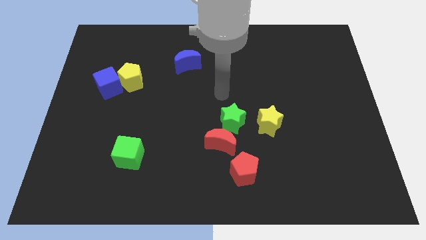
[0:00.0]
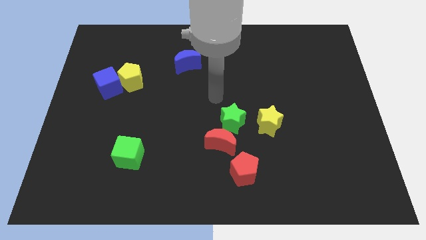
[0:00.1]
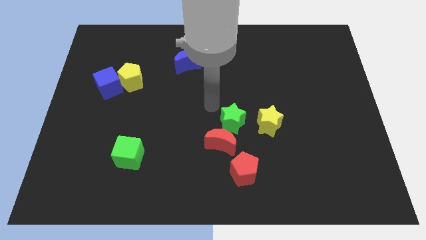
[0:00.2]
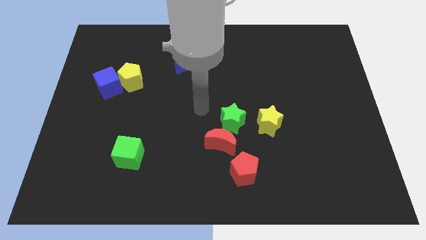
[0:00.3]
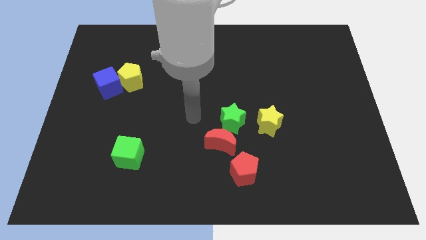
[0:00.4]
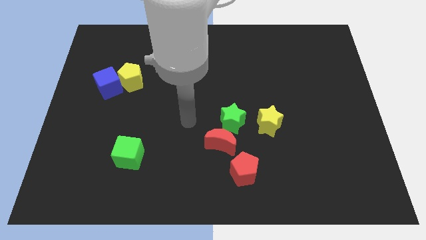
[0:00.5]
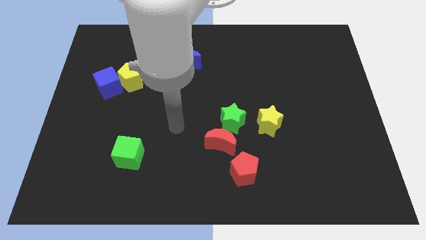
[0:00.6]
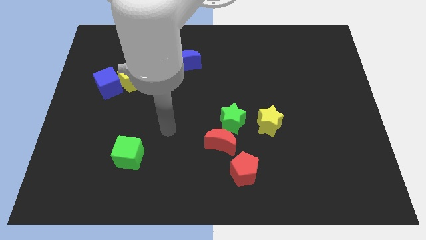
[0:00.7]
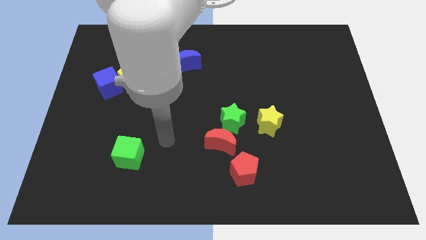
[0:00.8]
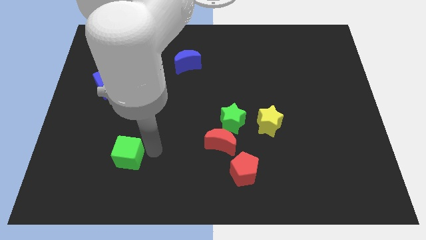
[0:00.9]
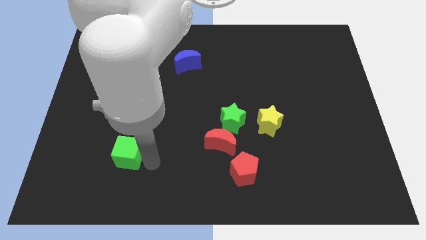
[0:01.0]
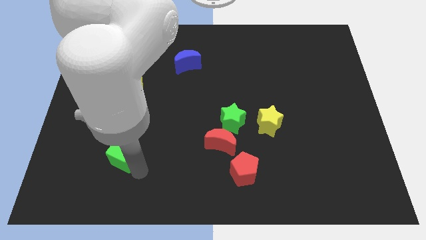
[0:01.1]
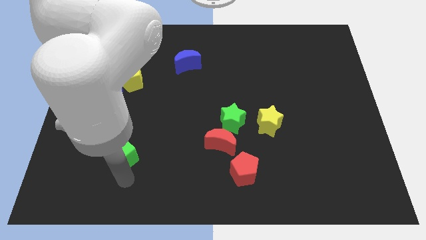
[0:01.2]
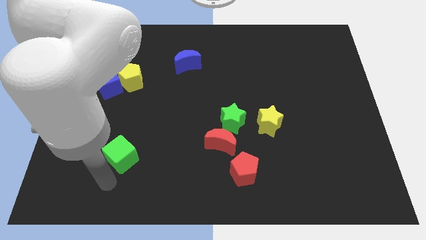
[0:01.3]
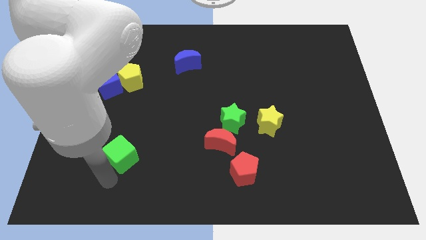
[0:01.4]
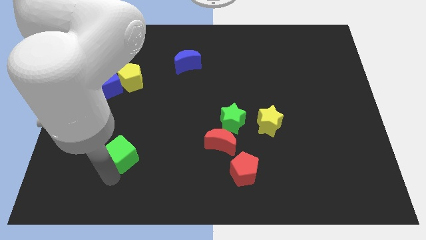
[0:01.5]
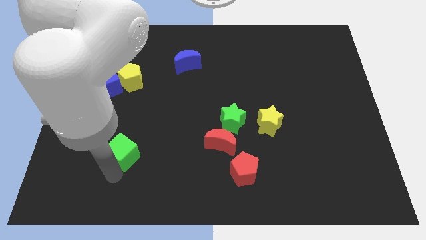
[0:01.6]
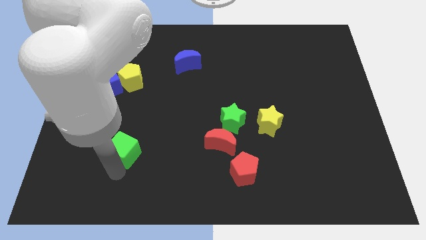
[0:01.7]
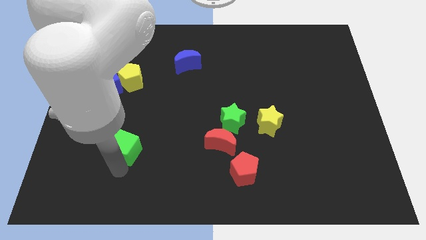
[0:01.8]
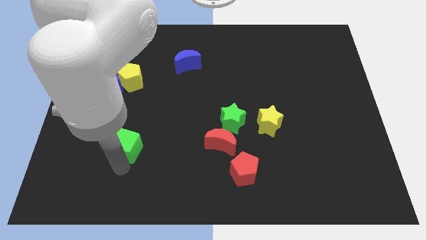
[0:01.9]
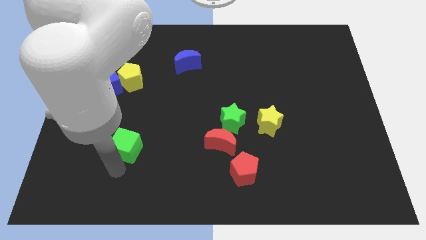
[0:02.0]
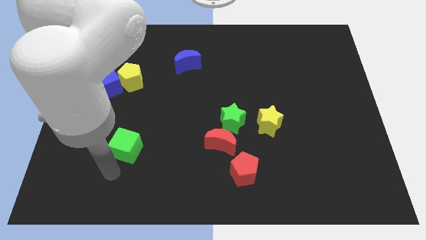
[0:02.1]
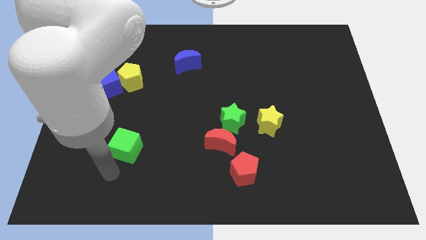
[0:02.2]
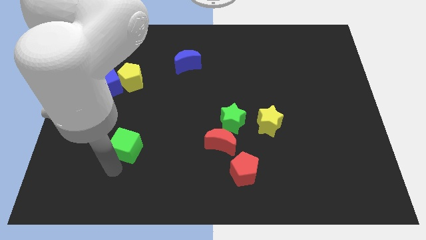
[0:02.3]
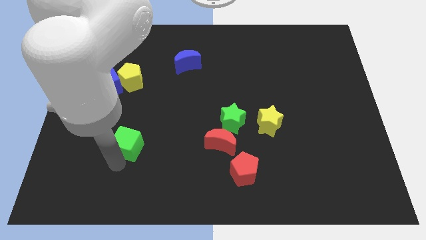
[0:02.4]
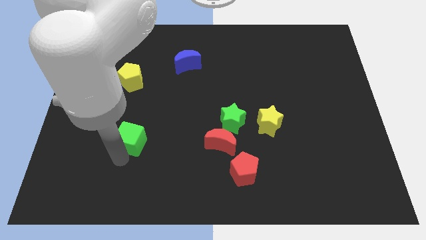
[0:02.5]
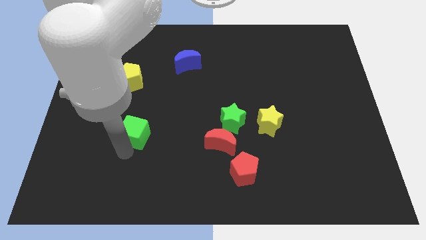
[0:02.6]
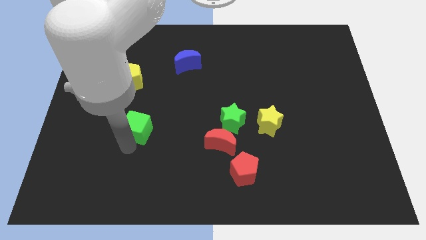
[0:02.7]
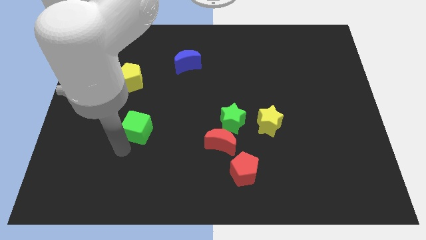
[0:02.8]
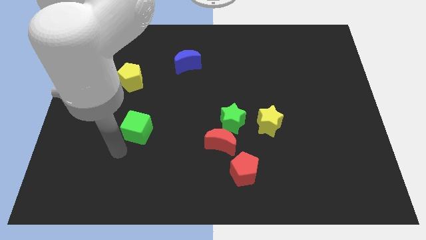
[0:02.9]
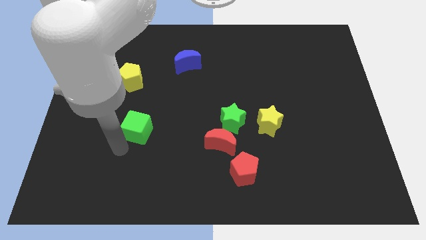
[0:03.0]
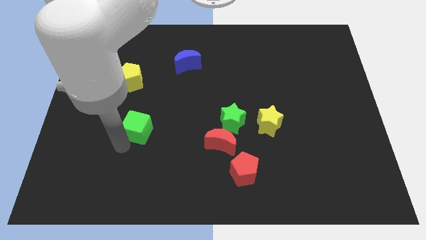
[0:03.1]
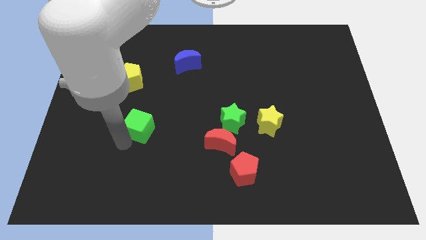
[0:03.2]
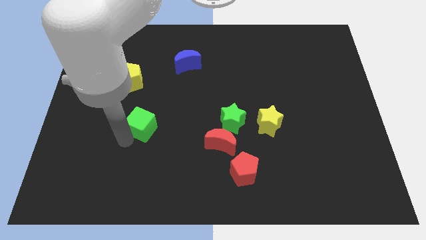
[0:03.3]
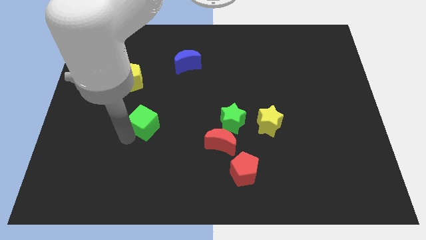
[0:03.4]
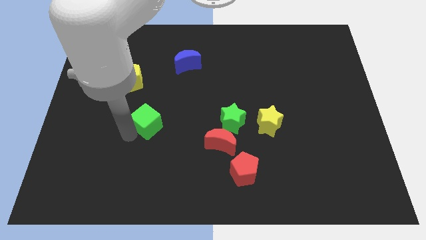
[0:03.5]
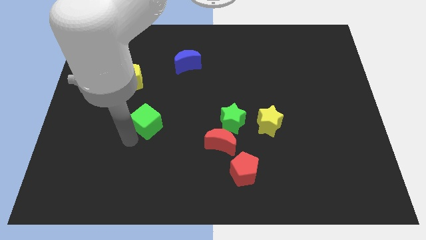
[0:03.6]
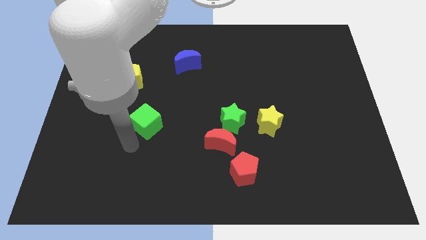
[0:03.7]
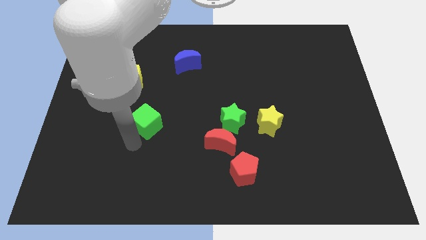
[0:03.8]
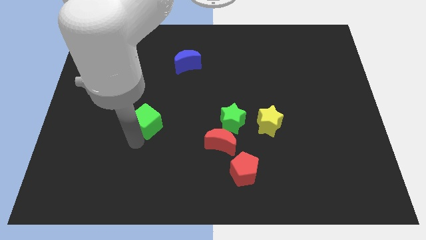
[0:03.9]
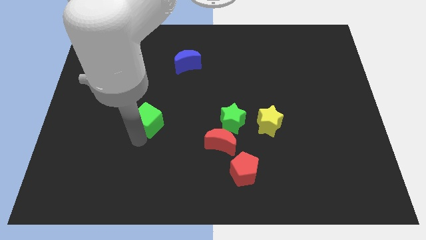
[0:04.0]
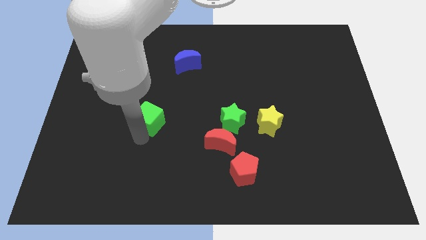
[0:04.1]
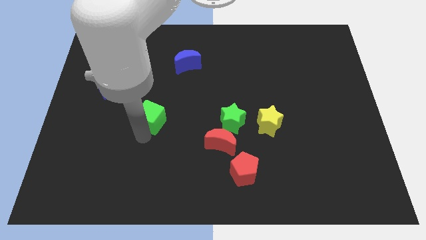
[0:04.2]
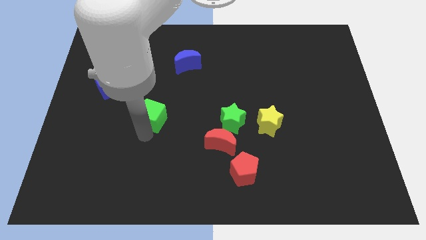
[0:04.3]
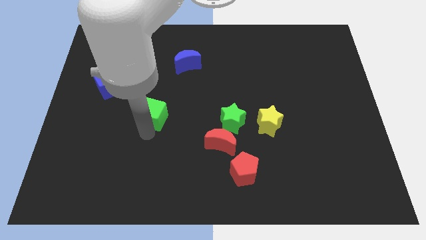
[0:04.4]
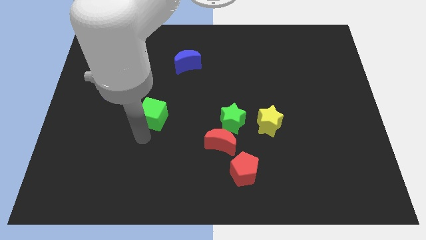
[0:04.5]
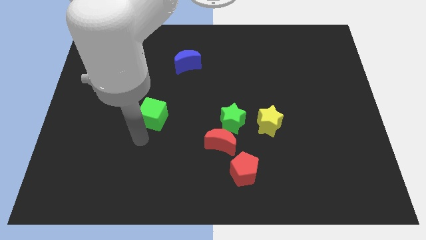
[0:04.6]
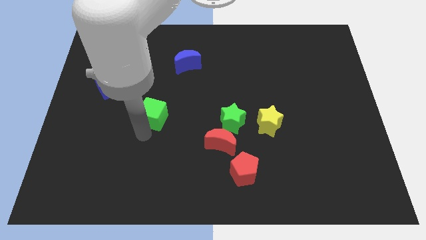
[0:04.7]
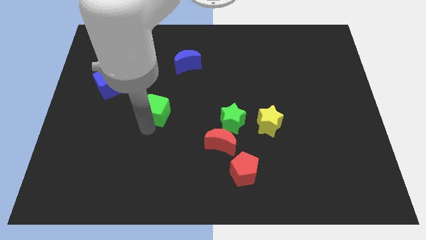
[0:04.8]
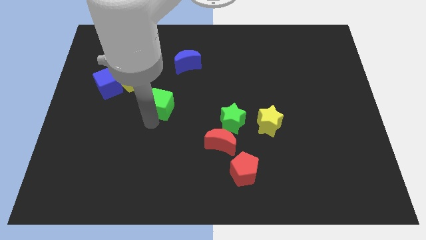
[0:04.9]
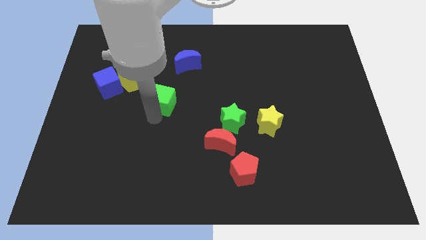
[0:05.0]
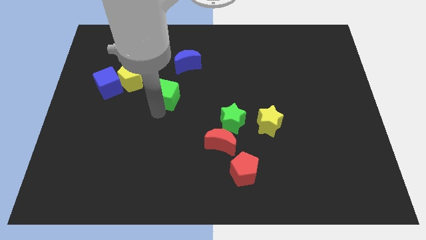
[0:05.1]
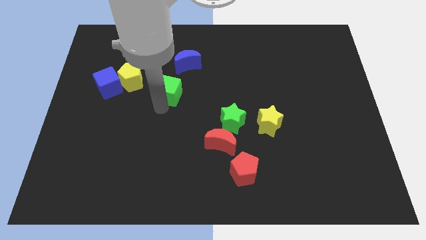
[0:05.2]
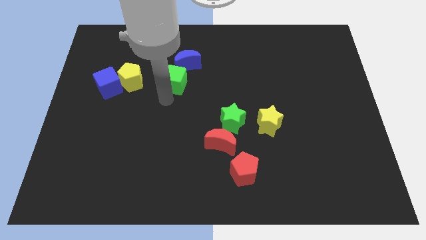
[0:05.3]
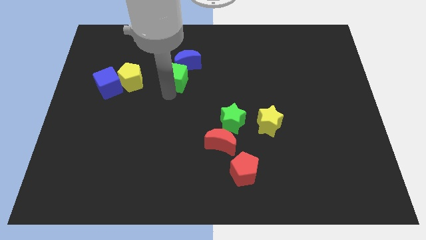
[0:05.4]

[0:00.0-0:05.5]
move the green cube to the blue moon

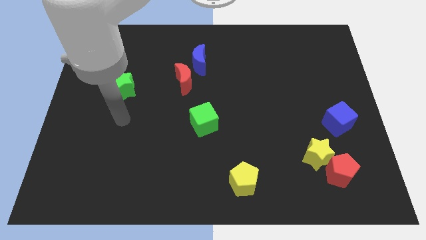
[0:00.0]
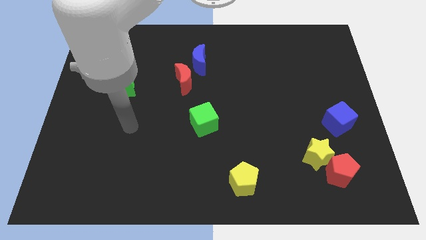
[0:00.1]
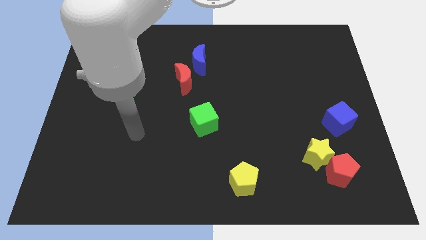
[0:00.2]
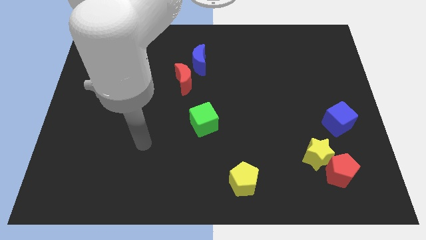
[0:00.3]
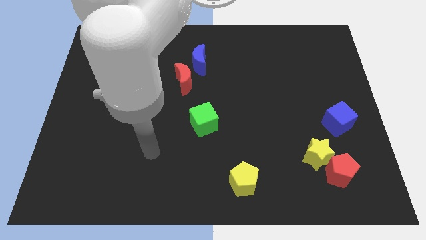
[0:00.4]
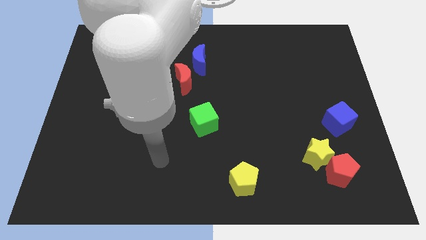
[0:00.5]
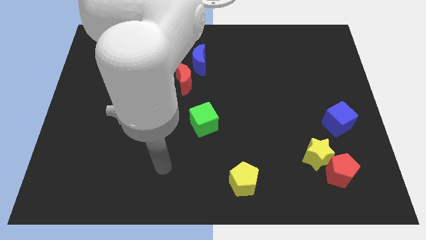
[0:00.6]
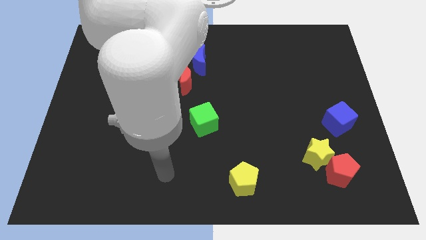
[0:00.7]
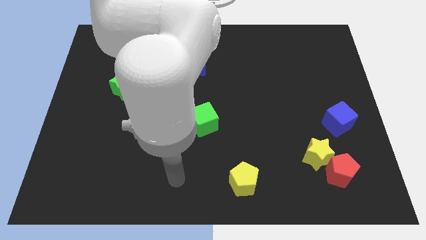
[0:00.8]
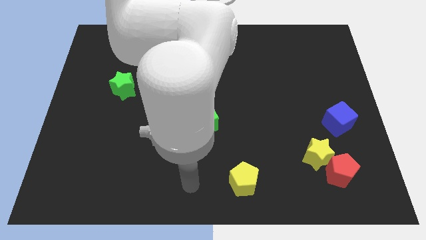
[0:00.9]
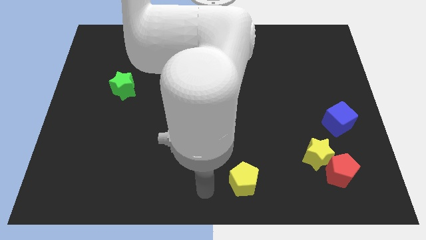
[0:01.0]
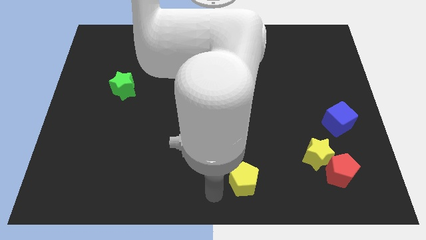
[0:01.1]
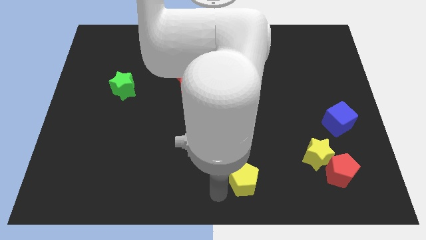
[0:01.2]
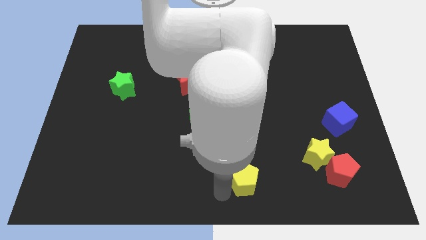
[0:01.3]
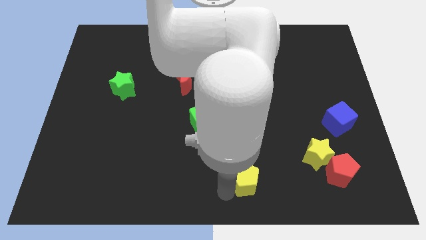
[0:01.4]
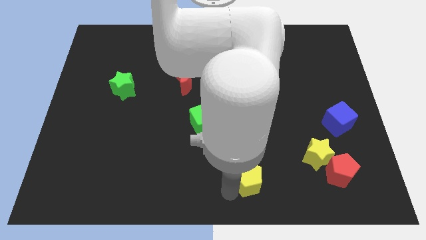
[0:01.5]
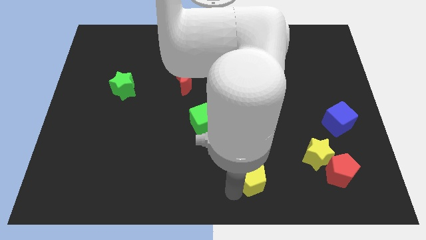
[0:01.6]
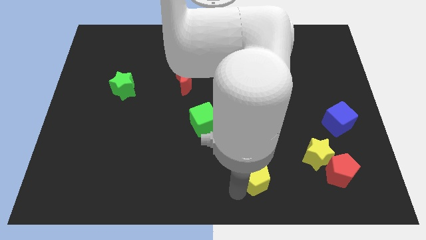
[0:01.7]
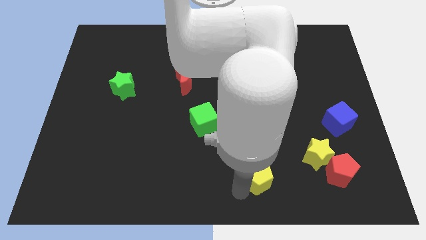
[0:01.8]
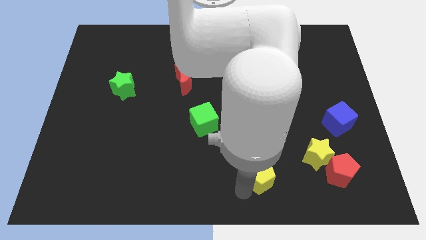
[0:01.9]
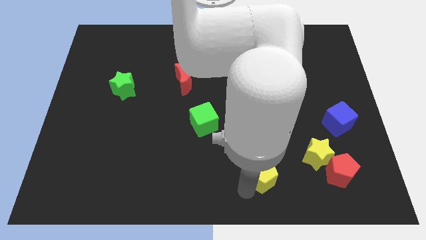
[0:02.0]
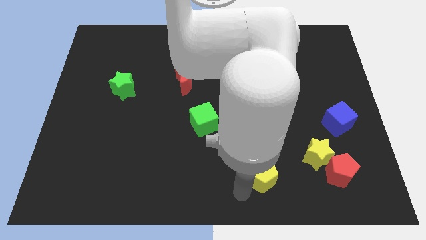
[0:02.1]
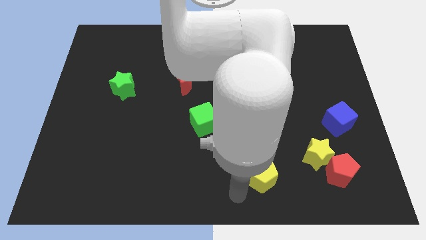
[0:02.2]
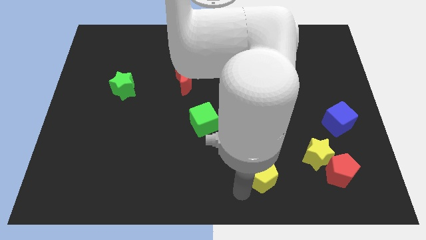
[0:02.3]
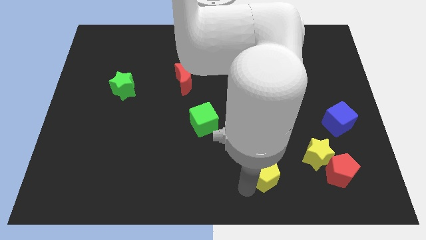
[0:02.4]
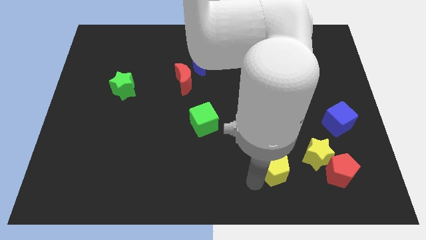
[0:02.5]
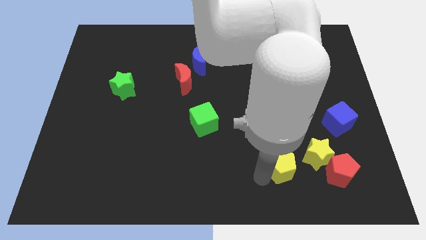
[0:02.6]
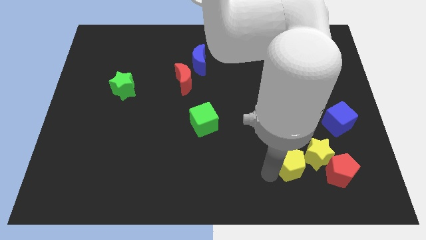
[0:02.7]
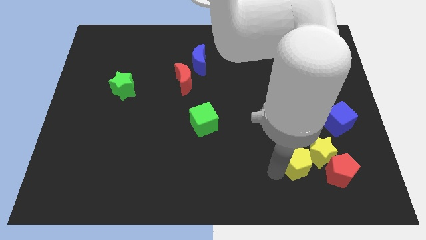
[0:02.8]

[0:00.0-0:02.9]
slide the yellow pentagon to the yellow star
